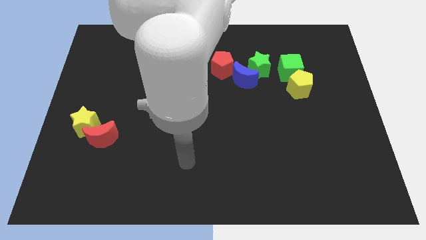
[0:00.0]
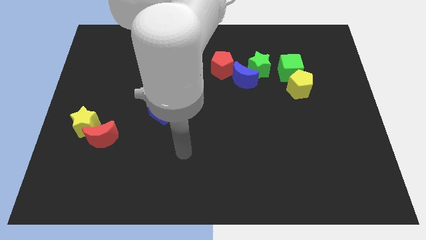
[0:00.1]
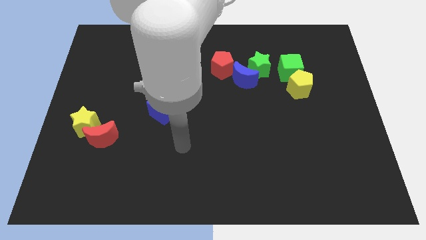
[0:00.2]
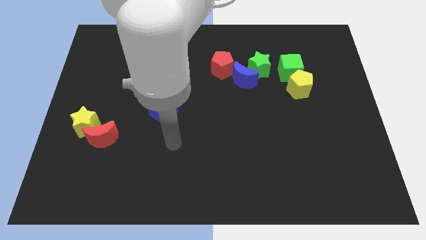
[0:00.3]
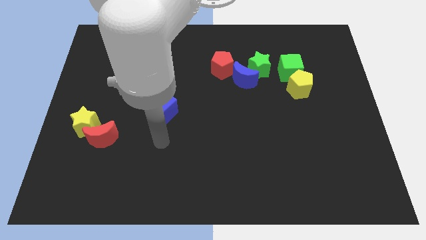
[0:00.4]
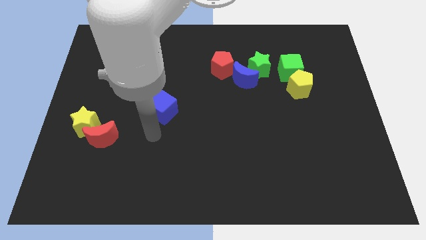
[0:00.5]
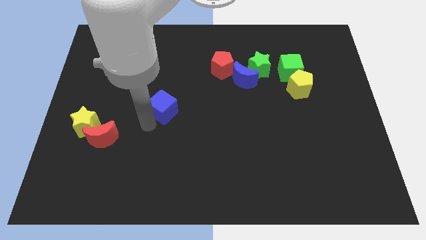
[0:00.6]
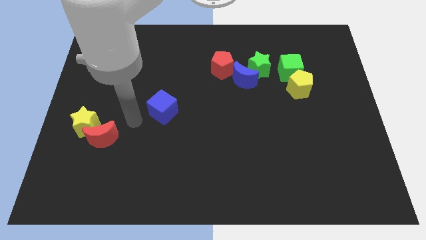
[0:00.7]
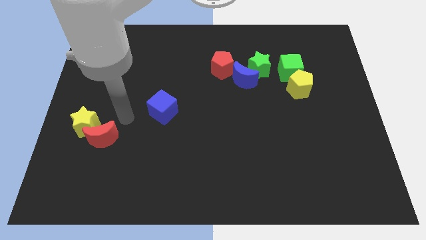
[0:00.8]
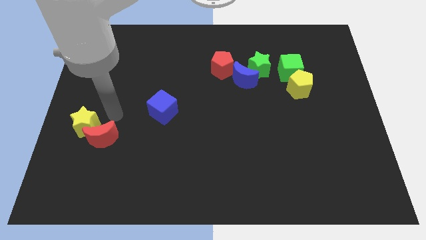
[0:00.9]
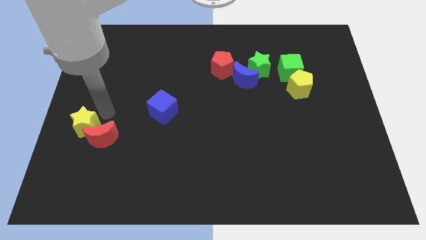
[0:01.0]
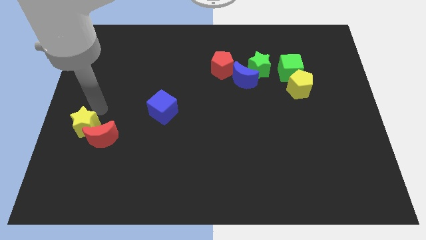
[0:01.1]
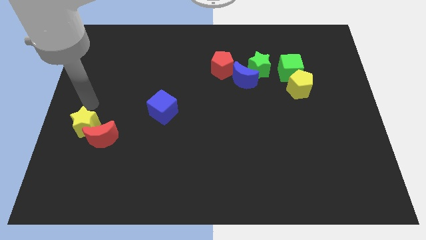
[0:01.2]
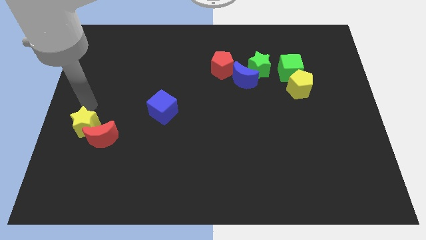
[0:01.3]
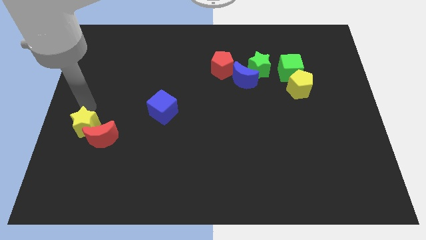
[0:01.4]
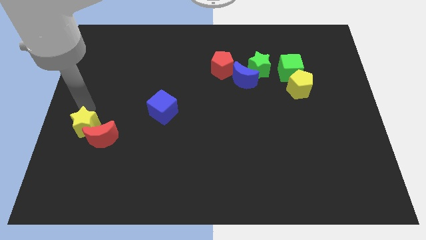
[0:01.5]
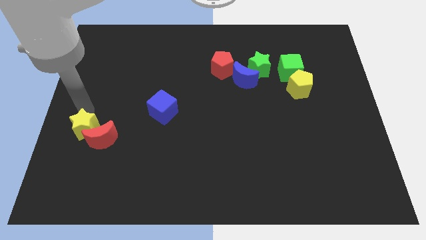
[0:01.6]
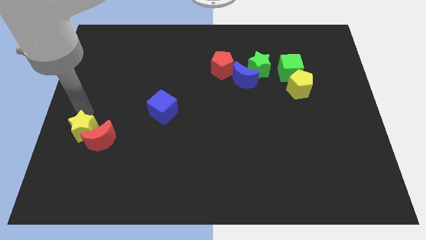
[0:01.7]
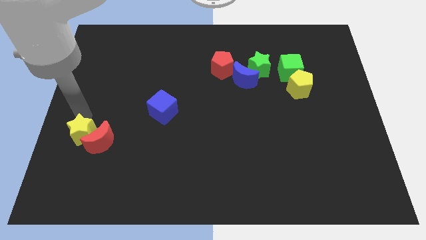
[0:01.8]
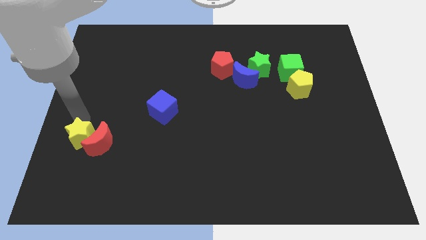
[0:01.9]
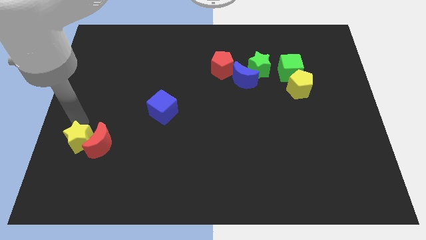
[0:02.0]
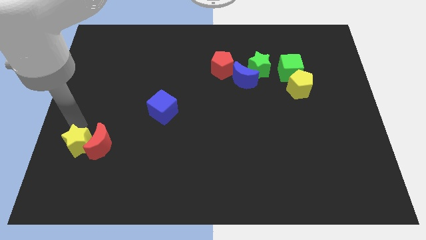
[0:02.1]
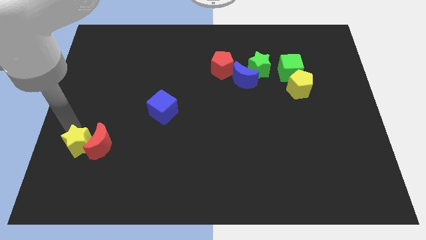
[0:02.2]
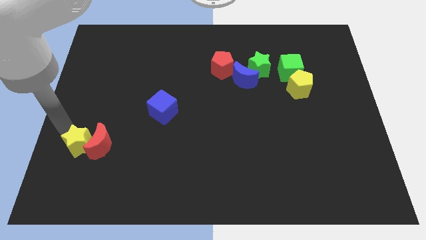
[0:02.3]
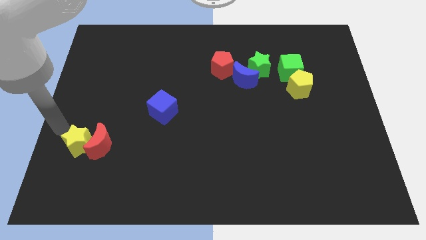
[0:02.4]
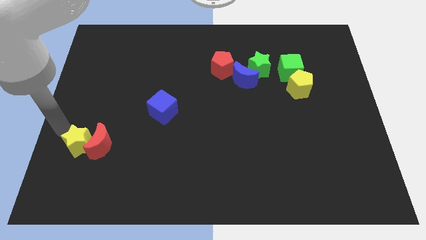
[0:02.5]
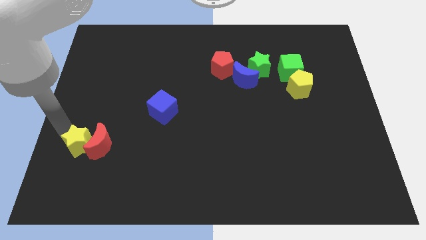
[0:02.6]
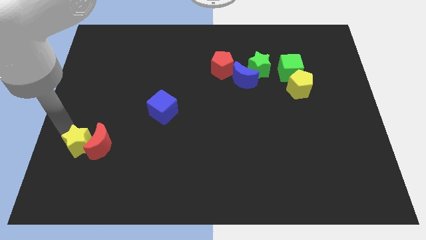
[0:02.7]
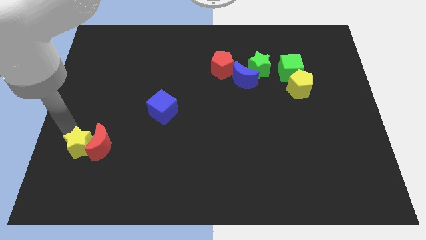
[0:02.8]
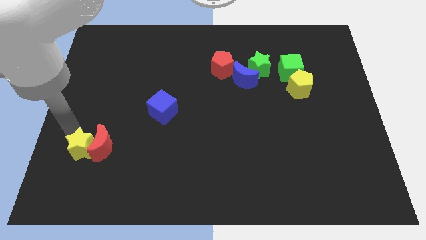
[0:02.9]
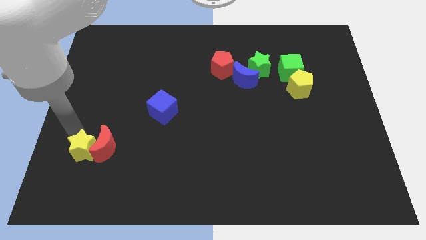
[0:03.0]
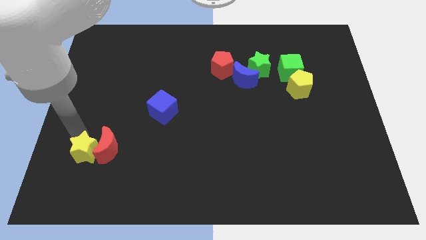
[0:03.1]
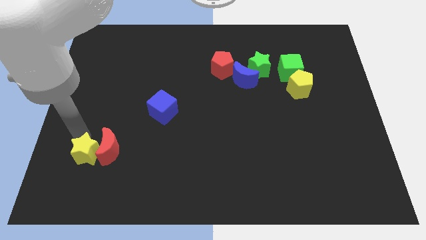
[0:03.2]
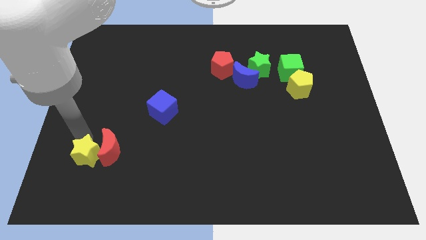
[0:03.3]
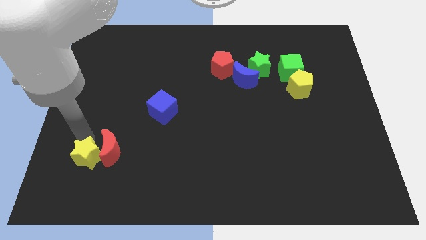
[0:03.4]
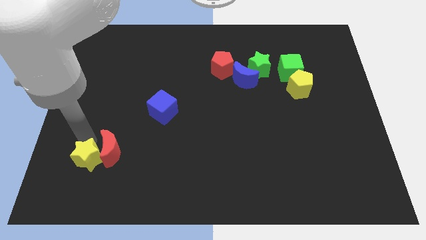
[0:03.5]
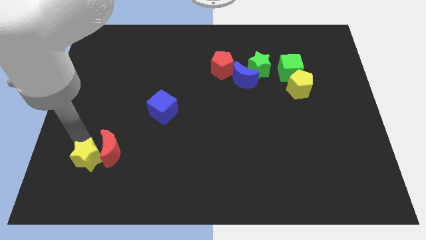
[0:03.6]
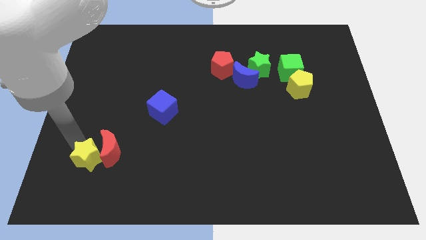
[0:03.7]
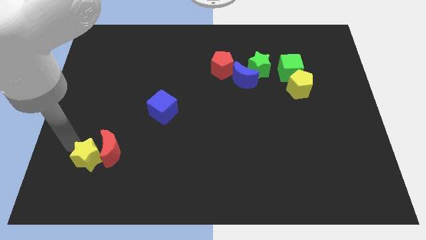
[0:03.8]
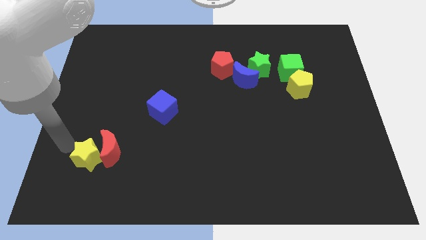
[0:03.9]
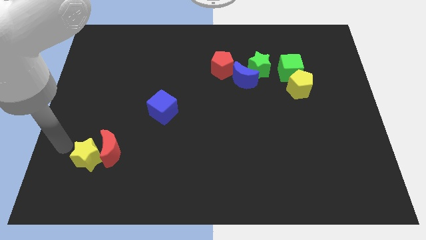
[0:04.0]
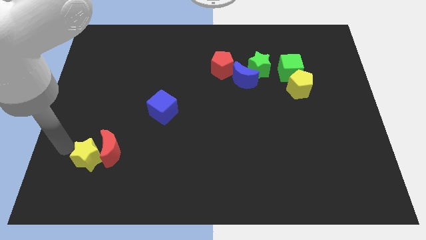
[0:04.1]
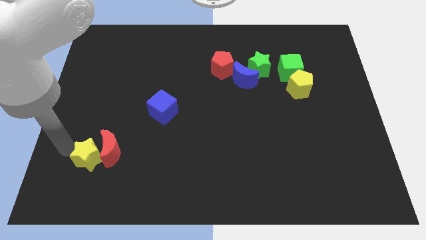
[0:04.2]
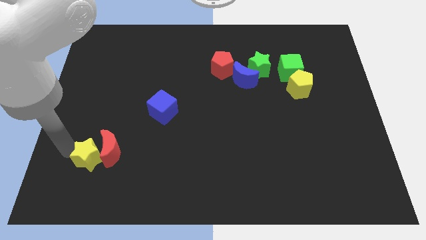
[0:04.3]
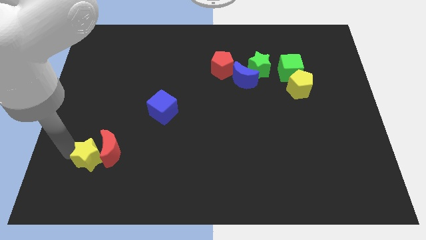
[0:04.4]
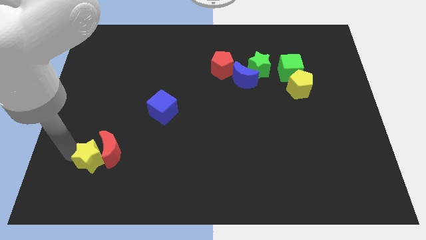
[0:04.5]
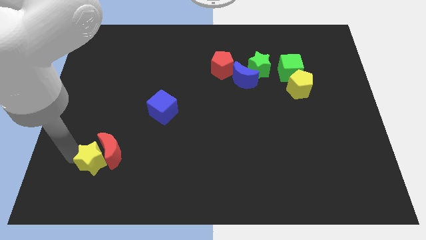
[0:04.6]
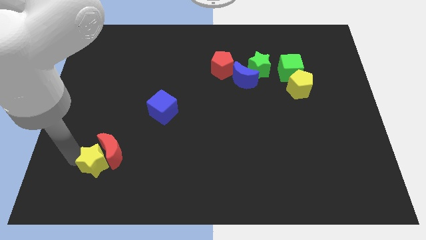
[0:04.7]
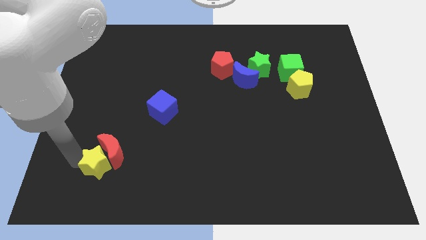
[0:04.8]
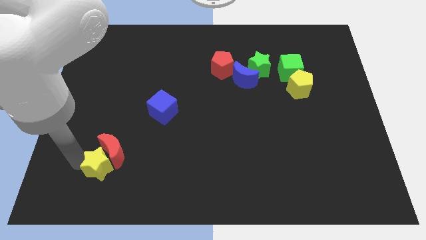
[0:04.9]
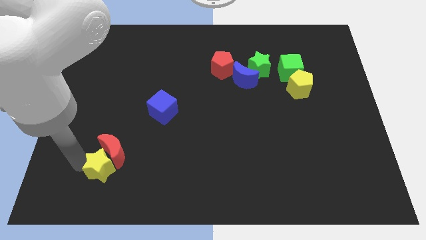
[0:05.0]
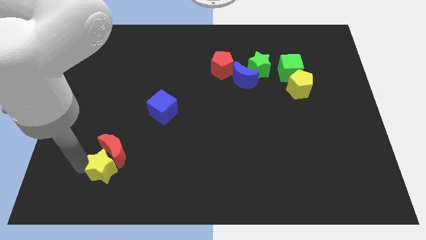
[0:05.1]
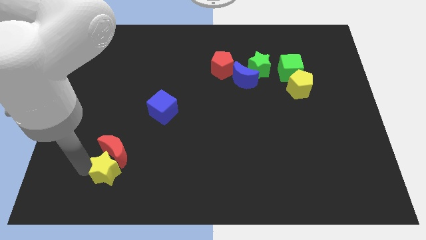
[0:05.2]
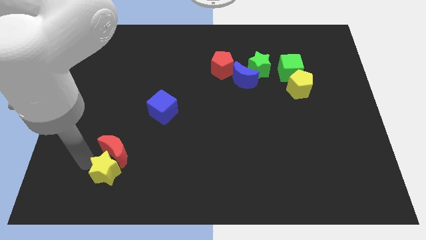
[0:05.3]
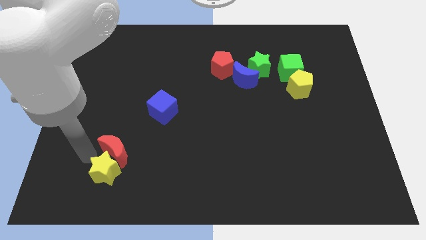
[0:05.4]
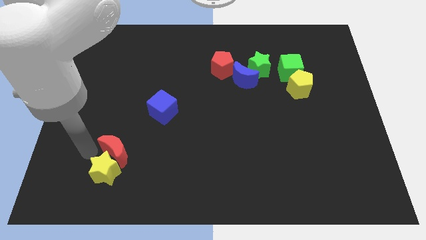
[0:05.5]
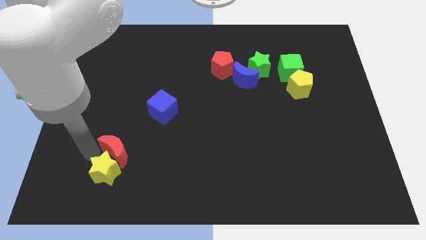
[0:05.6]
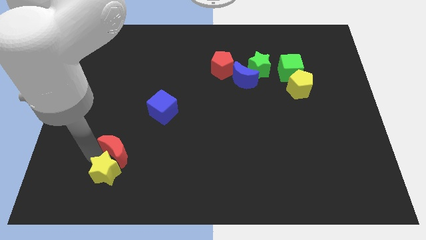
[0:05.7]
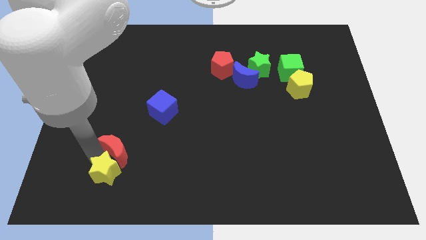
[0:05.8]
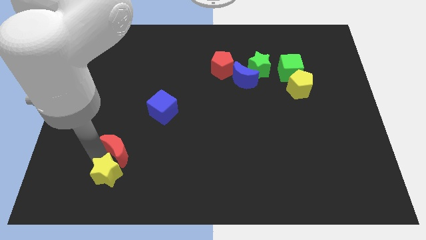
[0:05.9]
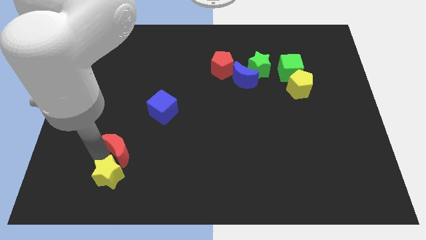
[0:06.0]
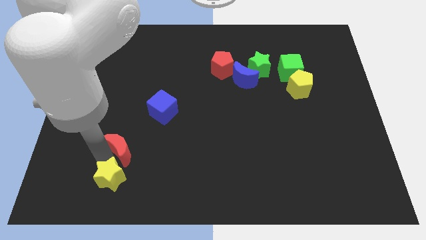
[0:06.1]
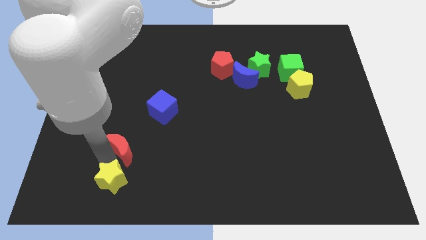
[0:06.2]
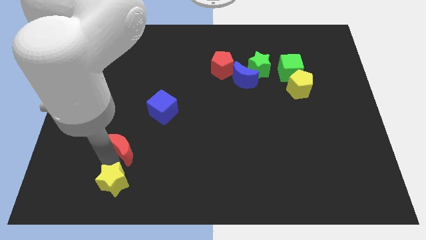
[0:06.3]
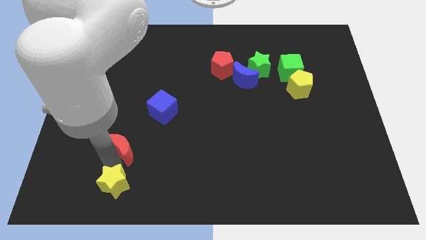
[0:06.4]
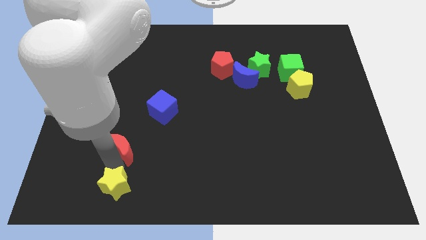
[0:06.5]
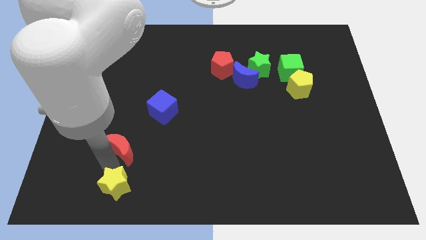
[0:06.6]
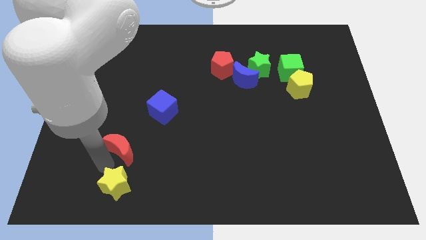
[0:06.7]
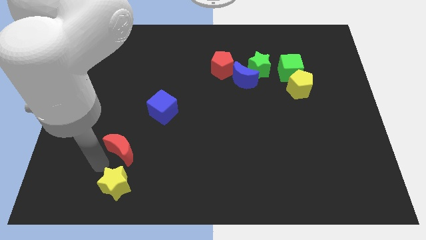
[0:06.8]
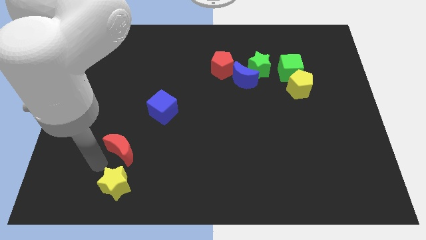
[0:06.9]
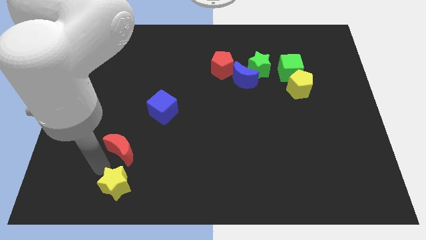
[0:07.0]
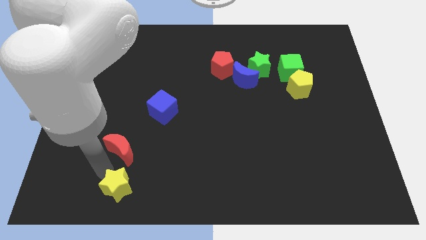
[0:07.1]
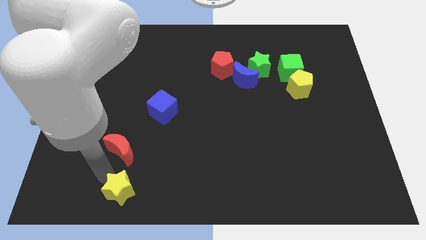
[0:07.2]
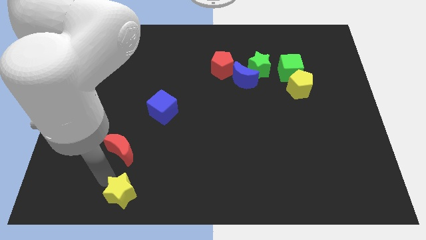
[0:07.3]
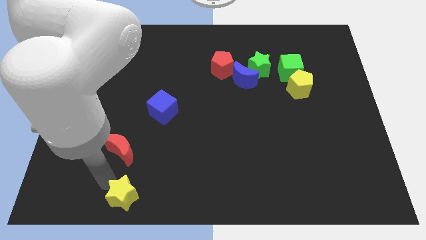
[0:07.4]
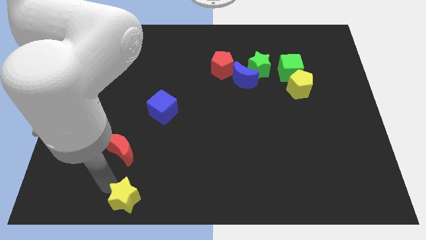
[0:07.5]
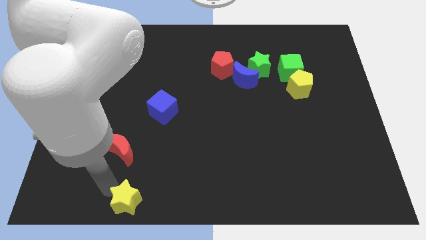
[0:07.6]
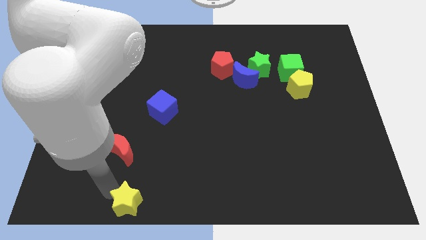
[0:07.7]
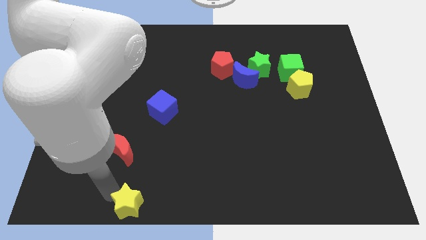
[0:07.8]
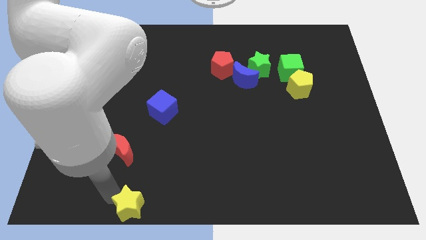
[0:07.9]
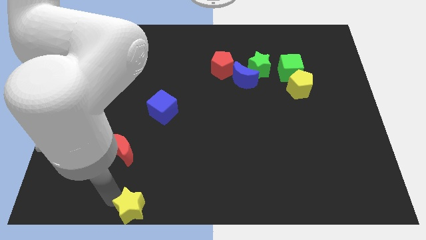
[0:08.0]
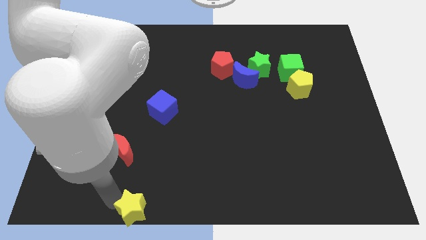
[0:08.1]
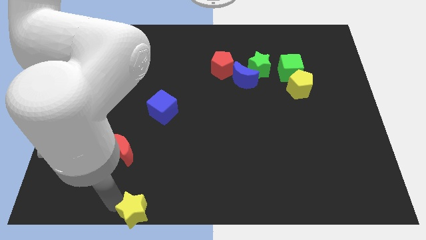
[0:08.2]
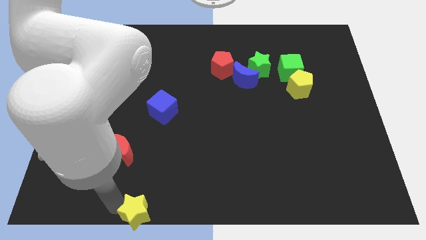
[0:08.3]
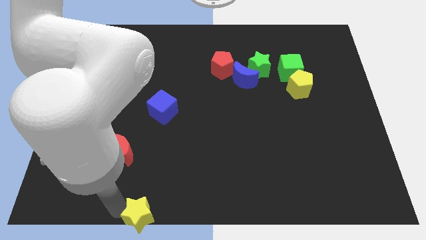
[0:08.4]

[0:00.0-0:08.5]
slide the yellow star to the bottom
